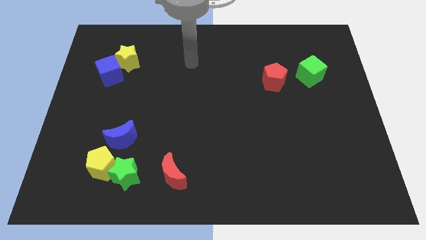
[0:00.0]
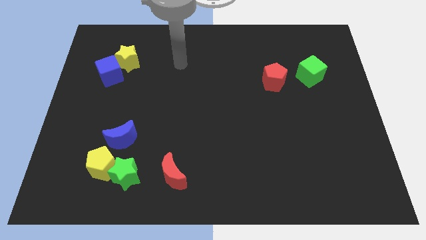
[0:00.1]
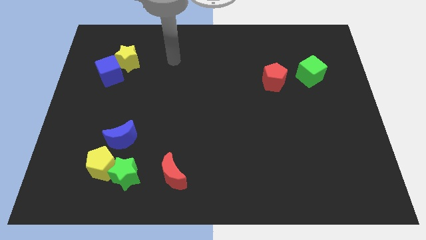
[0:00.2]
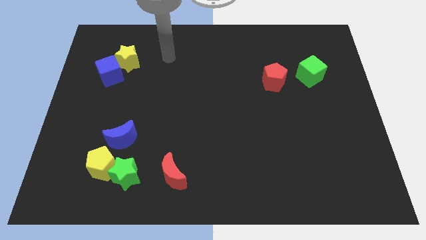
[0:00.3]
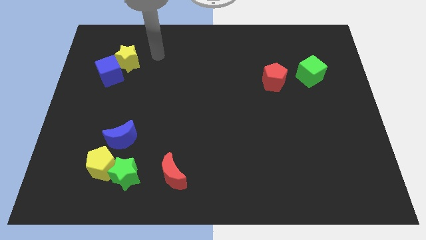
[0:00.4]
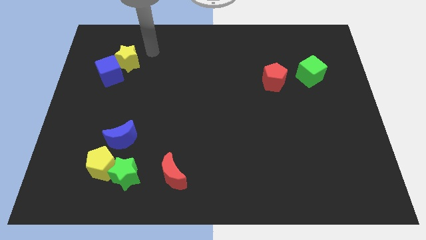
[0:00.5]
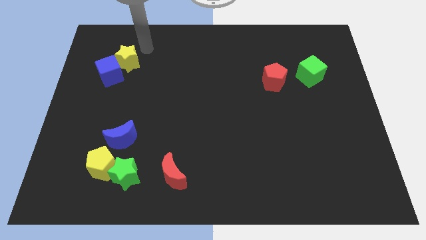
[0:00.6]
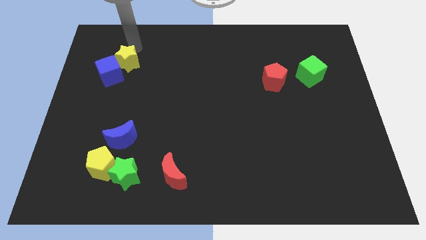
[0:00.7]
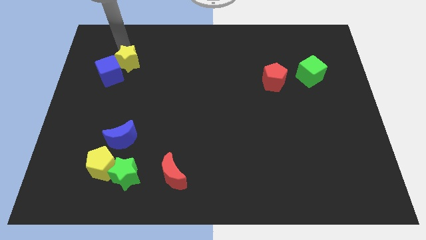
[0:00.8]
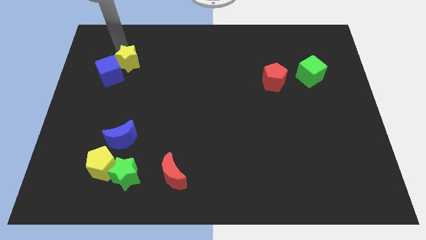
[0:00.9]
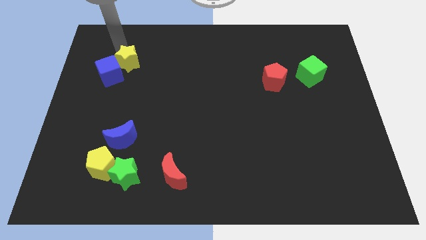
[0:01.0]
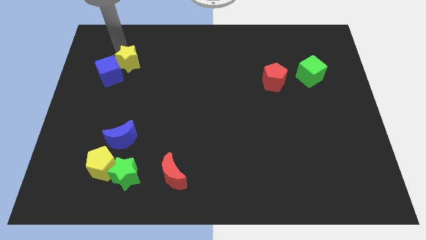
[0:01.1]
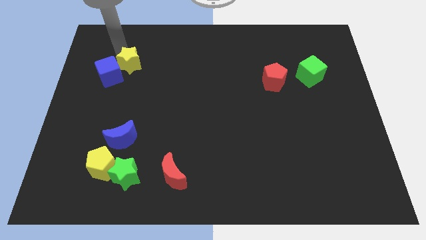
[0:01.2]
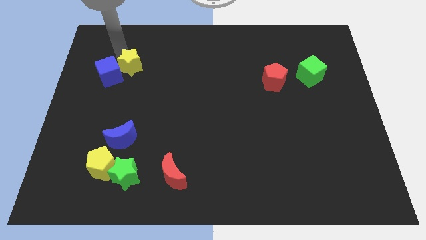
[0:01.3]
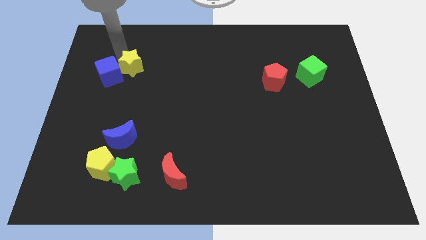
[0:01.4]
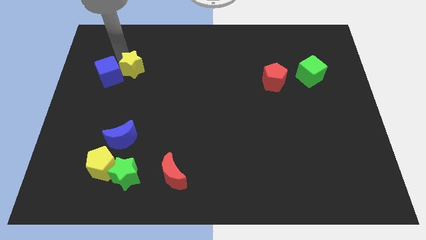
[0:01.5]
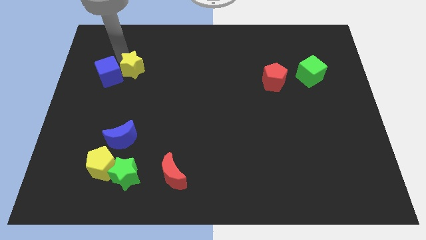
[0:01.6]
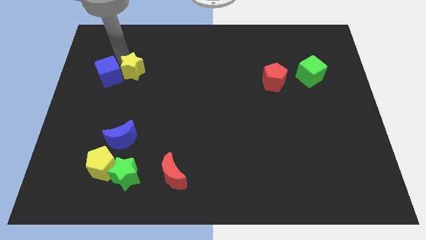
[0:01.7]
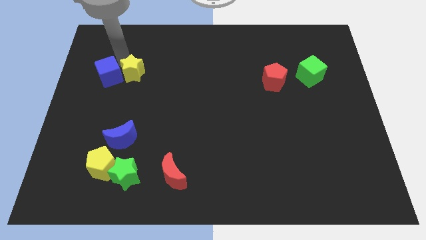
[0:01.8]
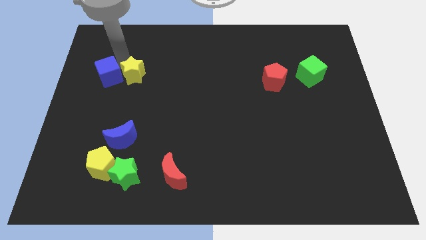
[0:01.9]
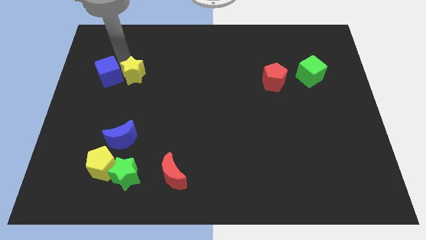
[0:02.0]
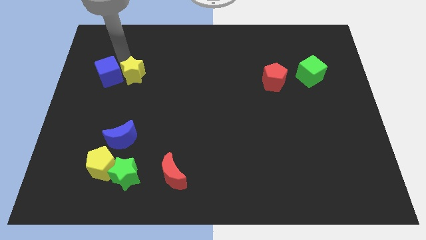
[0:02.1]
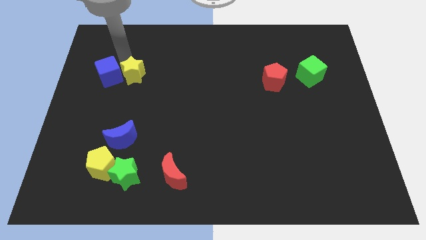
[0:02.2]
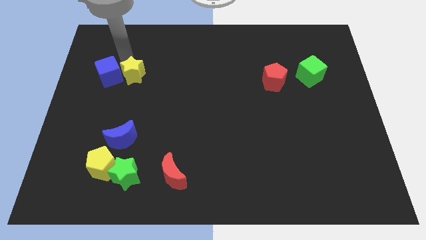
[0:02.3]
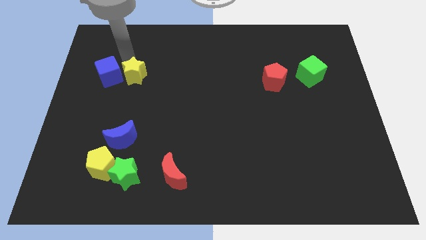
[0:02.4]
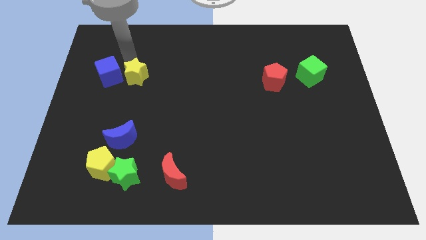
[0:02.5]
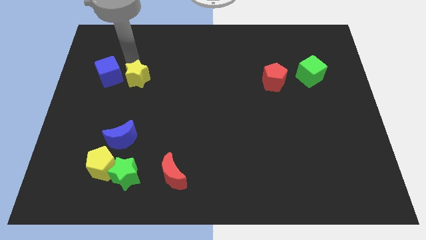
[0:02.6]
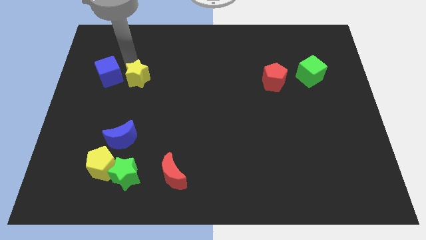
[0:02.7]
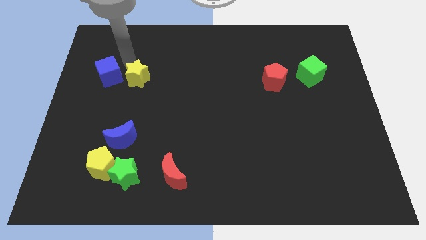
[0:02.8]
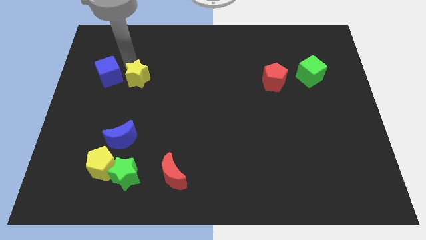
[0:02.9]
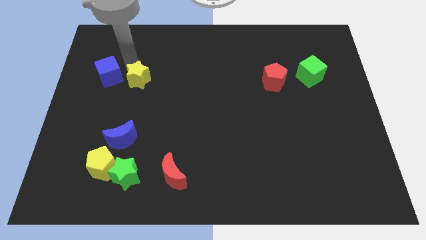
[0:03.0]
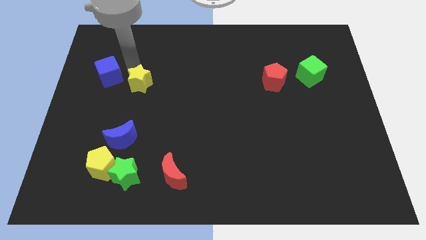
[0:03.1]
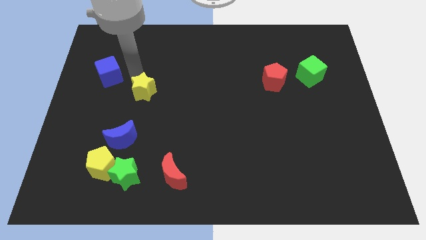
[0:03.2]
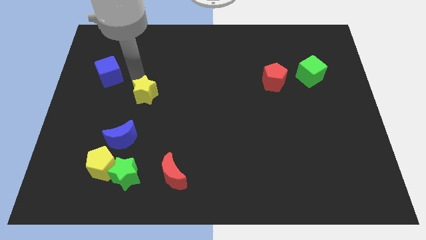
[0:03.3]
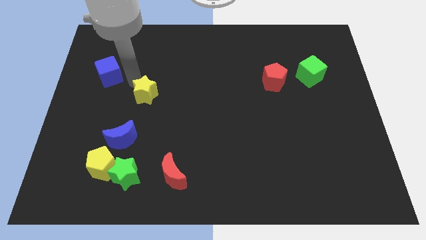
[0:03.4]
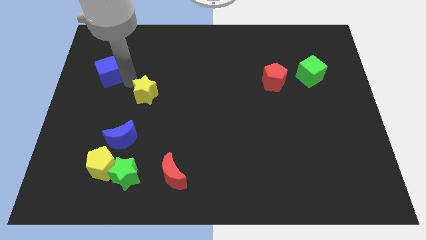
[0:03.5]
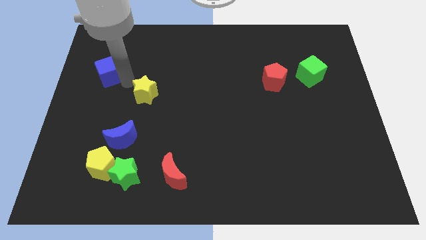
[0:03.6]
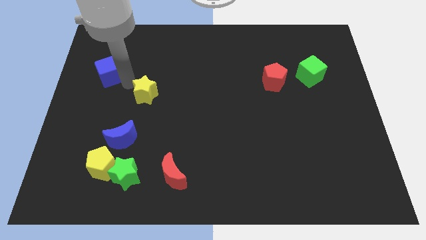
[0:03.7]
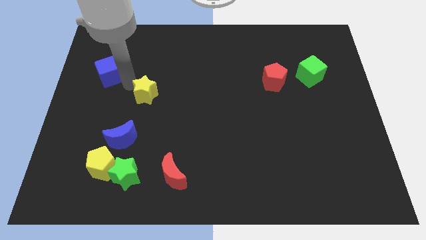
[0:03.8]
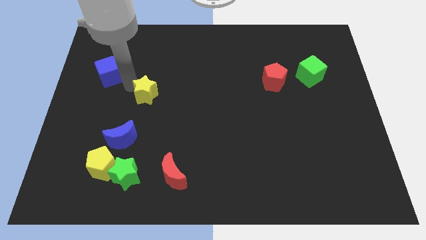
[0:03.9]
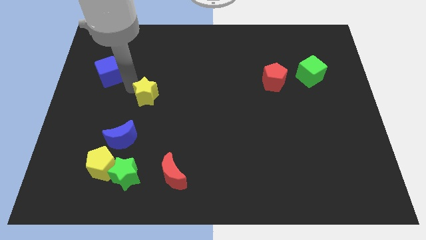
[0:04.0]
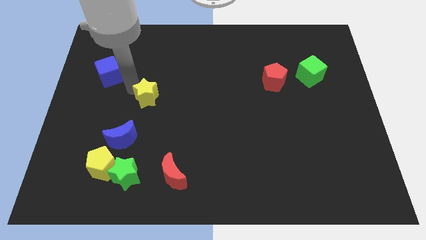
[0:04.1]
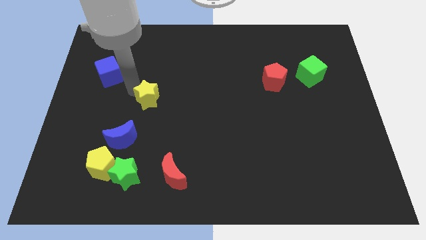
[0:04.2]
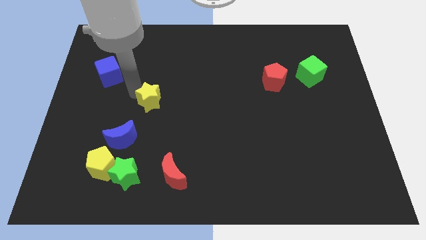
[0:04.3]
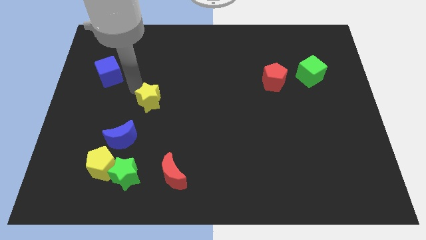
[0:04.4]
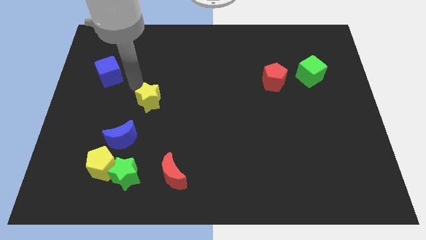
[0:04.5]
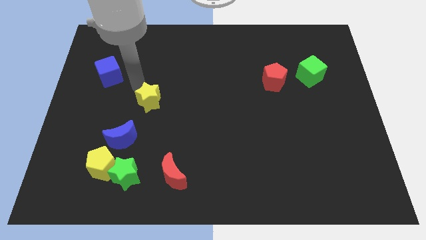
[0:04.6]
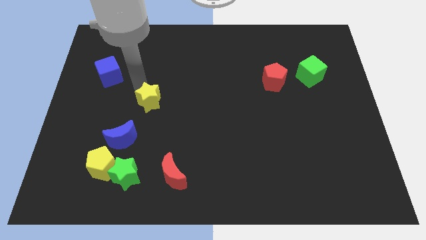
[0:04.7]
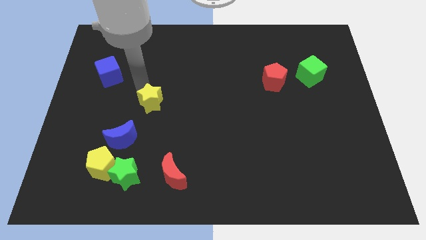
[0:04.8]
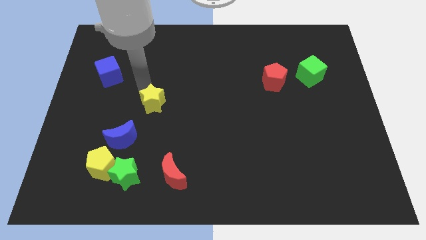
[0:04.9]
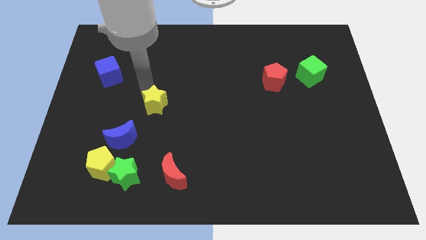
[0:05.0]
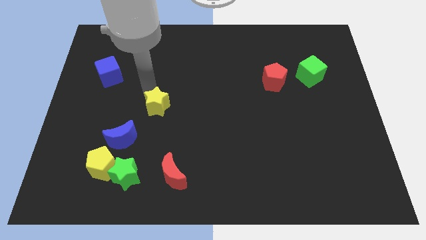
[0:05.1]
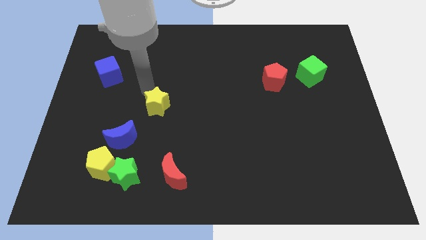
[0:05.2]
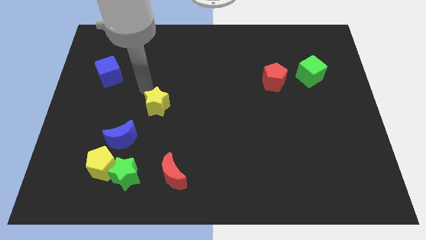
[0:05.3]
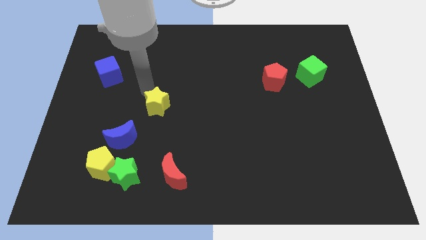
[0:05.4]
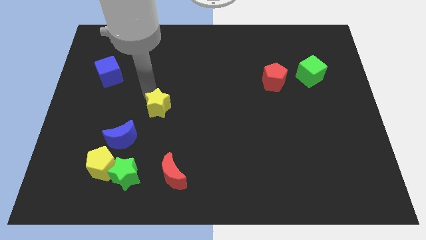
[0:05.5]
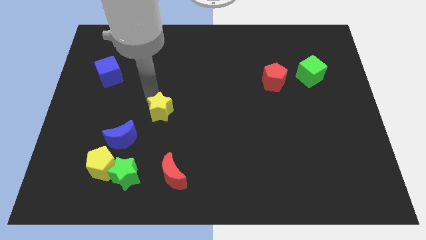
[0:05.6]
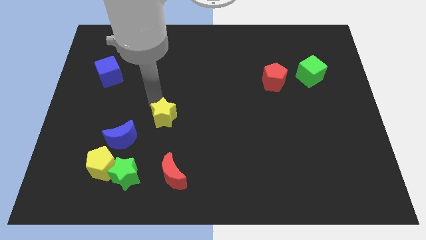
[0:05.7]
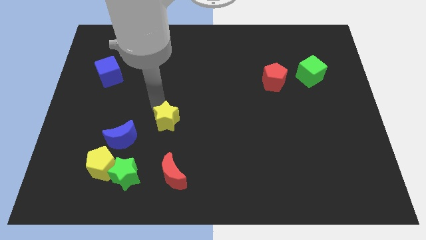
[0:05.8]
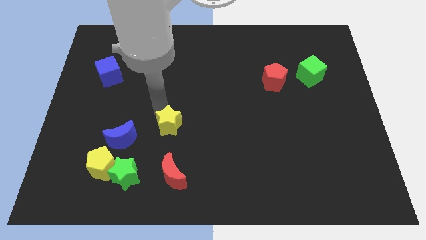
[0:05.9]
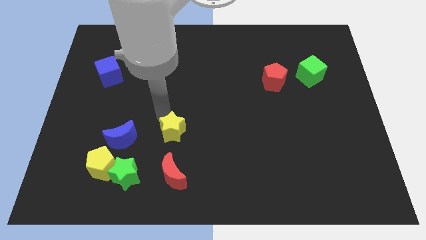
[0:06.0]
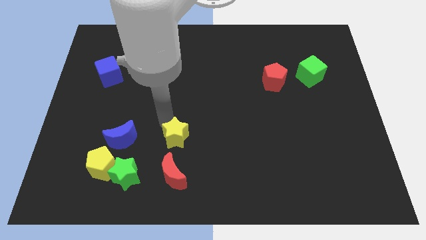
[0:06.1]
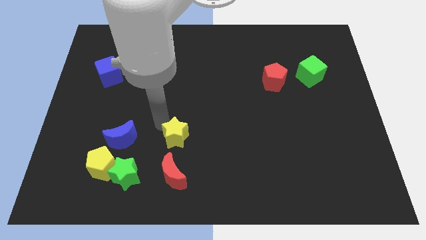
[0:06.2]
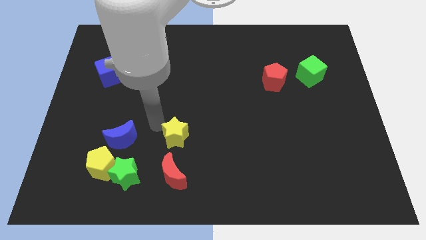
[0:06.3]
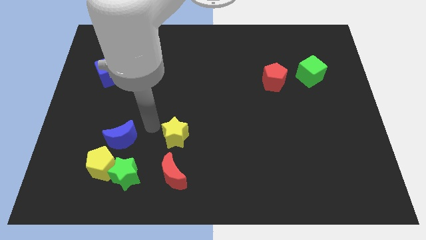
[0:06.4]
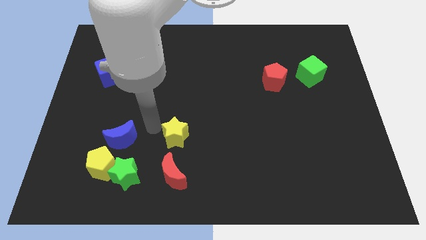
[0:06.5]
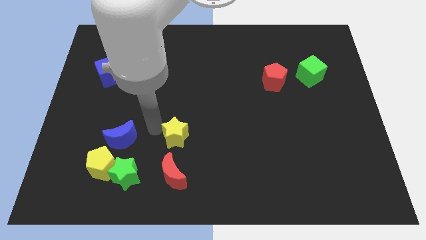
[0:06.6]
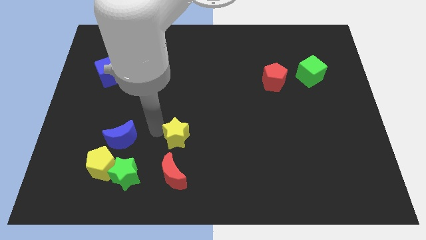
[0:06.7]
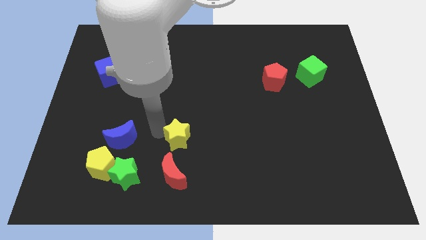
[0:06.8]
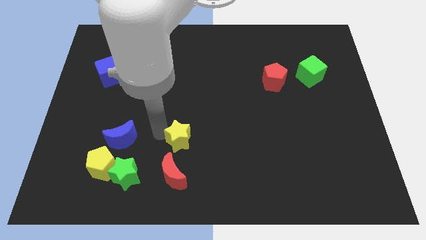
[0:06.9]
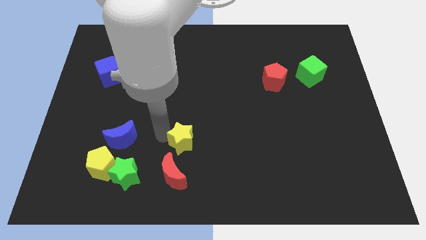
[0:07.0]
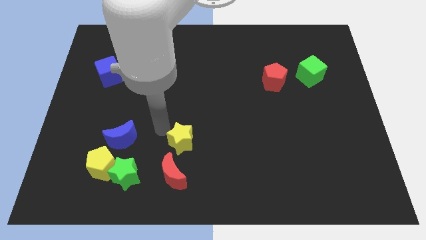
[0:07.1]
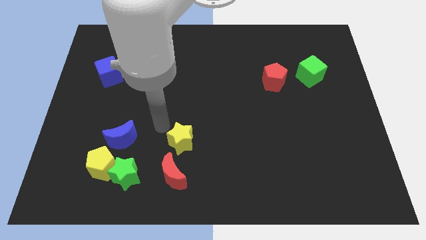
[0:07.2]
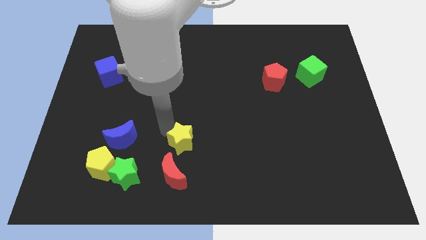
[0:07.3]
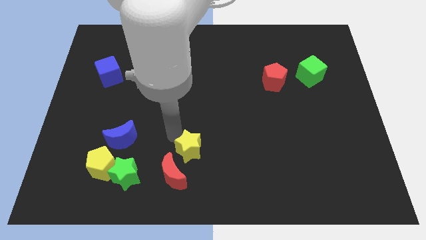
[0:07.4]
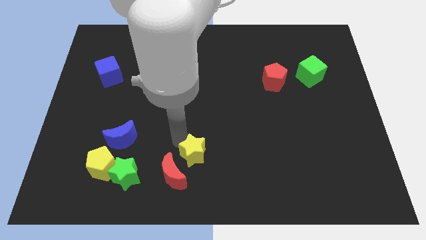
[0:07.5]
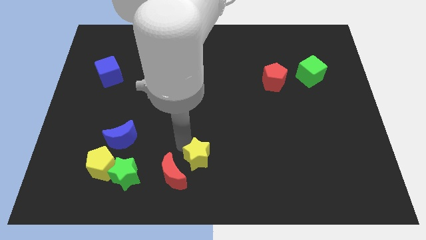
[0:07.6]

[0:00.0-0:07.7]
put the yellow star to the right of the red moon

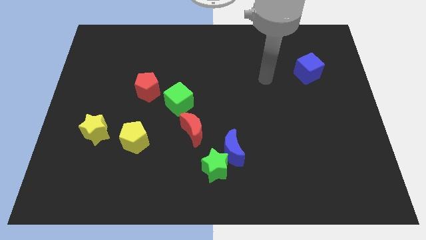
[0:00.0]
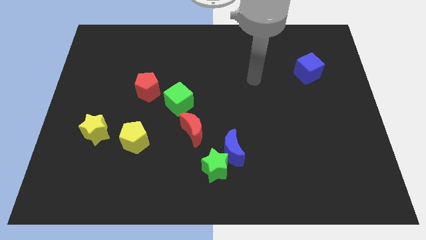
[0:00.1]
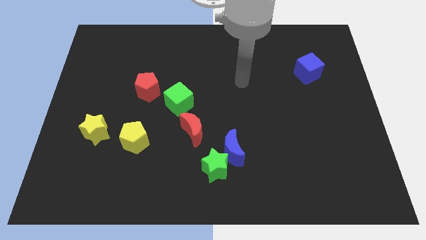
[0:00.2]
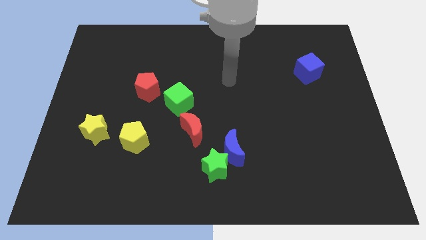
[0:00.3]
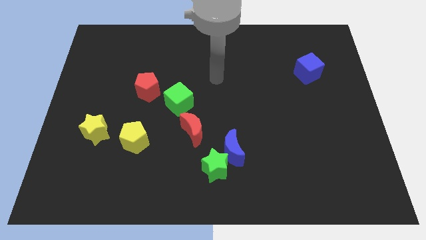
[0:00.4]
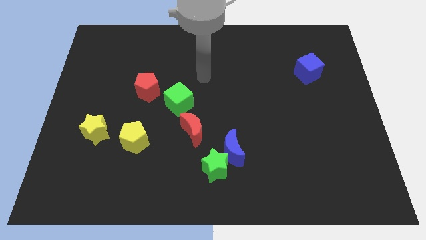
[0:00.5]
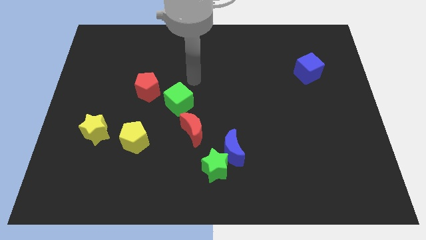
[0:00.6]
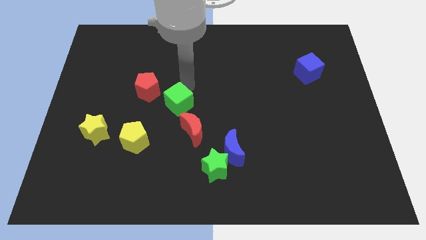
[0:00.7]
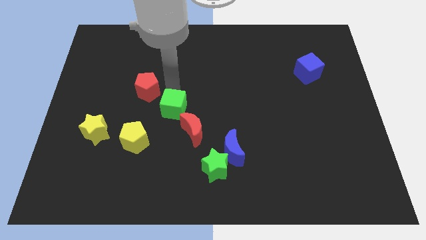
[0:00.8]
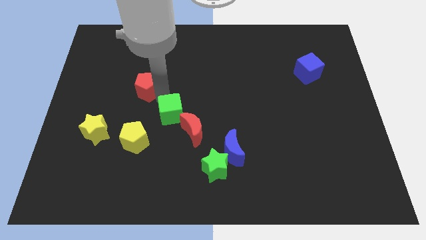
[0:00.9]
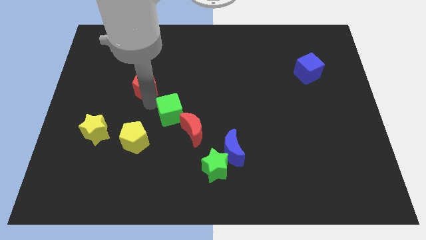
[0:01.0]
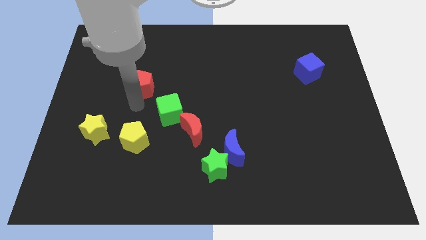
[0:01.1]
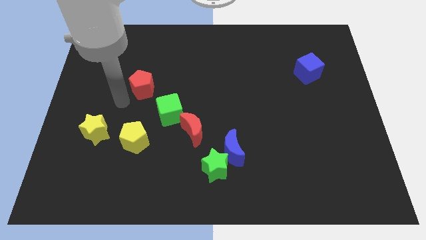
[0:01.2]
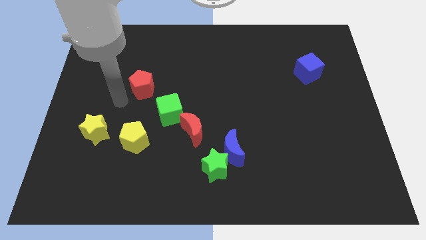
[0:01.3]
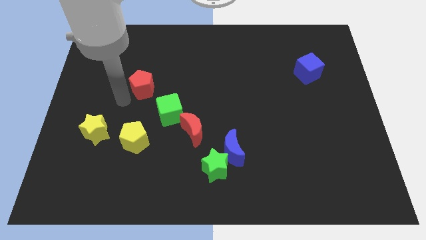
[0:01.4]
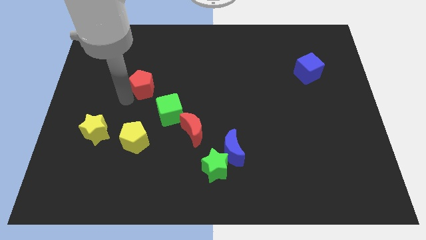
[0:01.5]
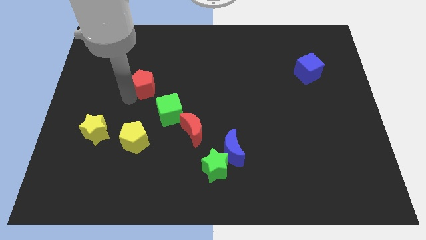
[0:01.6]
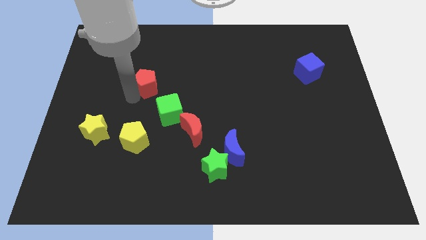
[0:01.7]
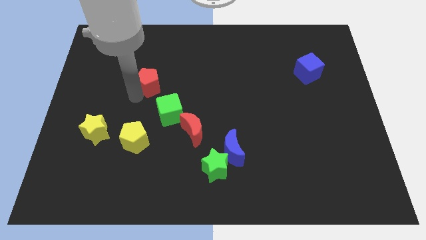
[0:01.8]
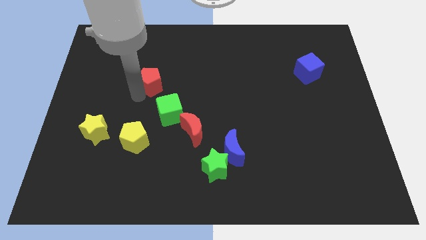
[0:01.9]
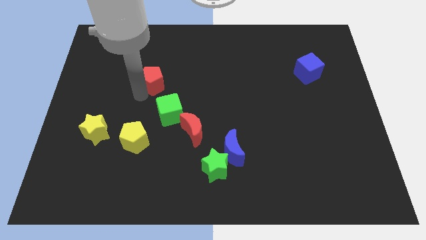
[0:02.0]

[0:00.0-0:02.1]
move the red pentagon above the green cube
